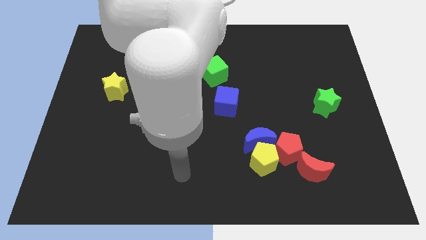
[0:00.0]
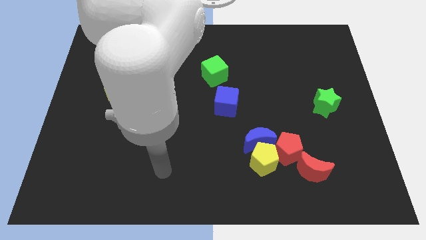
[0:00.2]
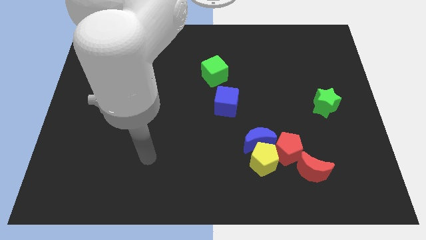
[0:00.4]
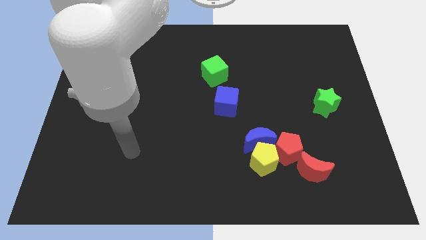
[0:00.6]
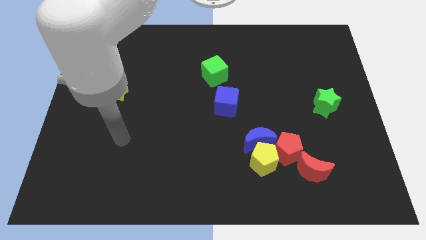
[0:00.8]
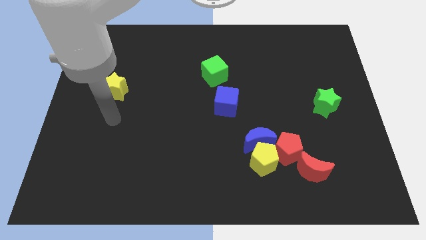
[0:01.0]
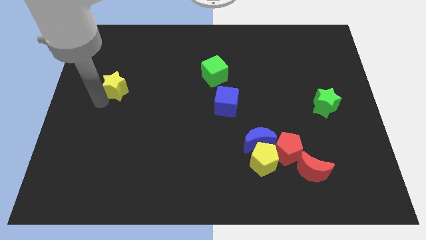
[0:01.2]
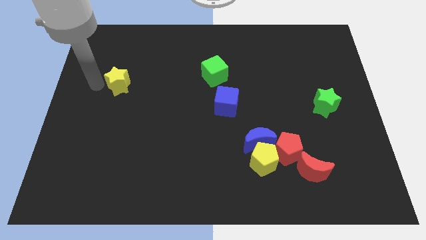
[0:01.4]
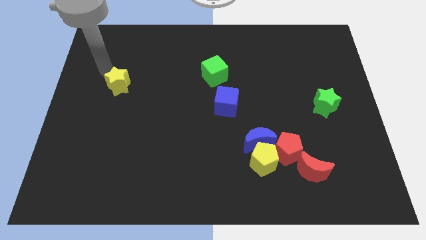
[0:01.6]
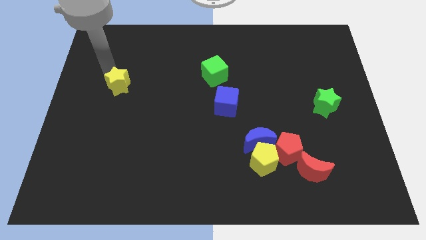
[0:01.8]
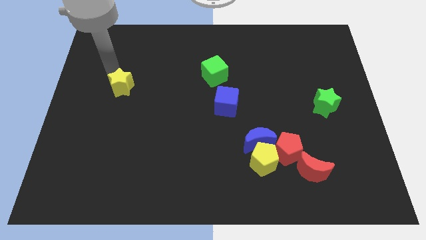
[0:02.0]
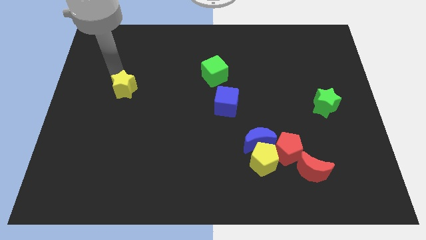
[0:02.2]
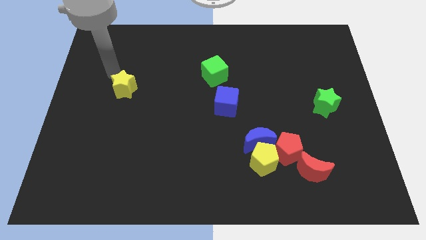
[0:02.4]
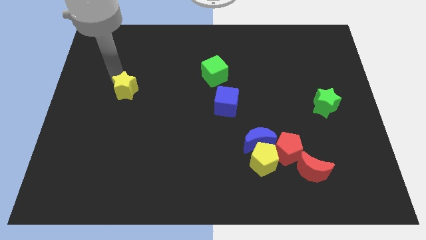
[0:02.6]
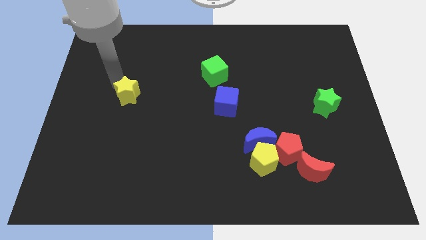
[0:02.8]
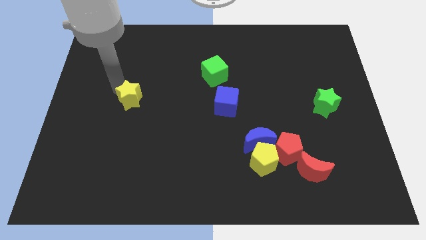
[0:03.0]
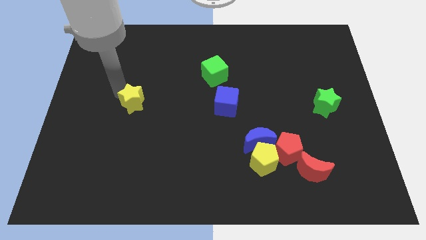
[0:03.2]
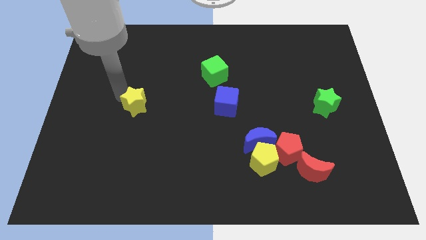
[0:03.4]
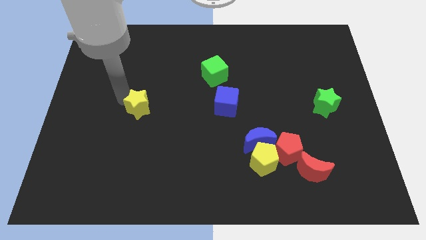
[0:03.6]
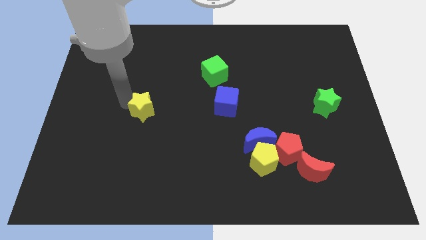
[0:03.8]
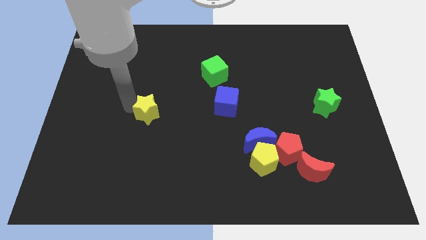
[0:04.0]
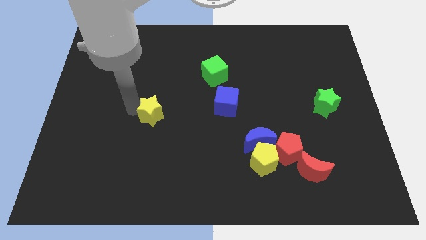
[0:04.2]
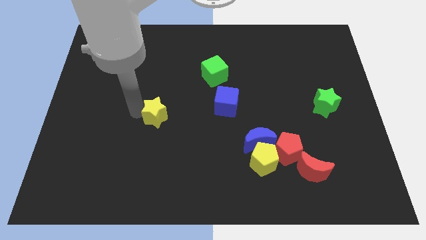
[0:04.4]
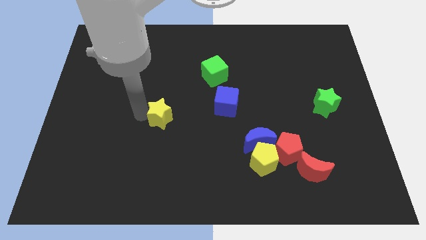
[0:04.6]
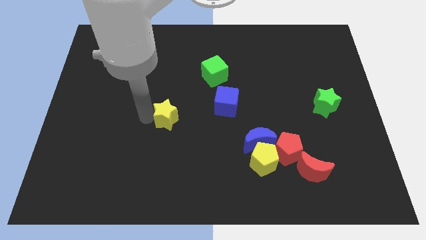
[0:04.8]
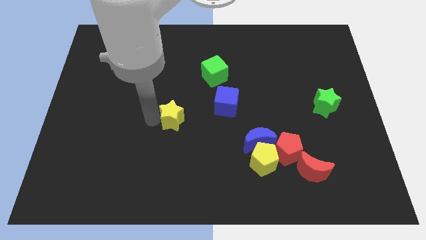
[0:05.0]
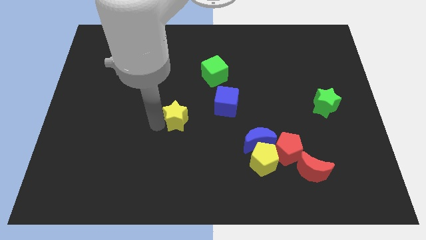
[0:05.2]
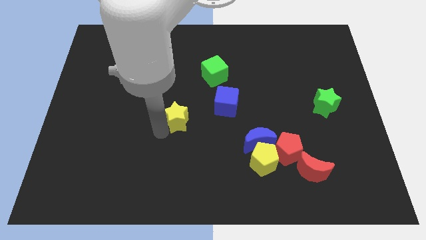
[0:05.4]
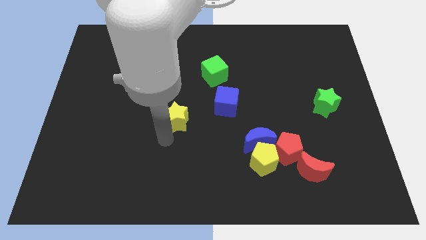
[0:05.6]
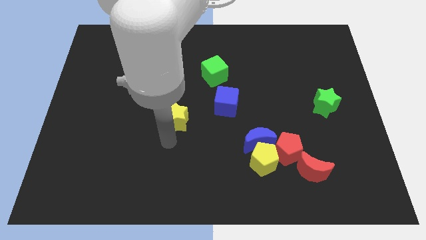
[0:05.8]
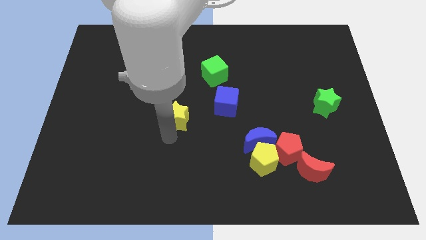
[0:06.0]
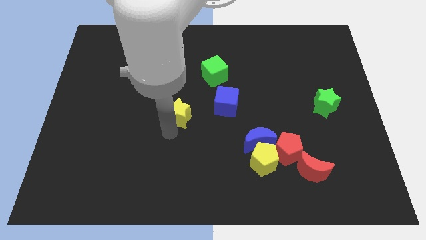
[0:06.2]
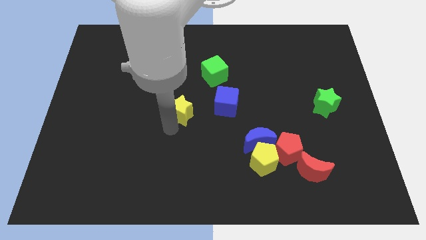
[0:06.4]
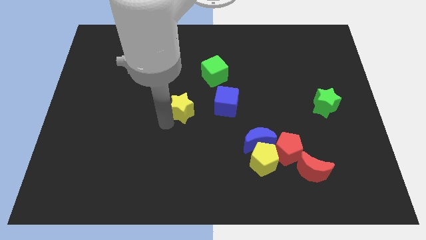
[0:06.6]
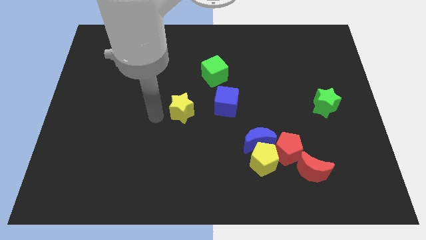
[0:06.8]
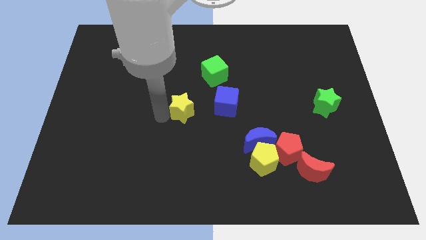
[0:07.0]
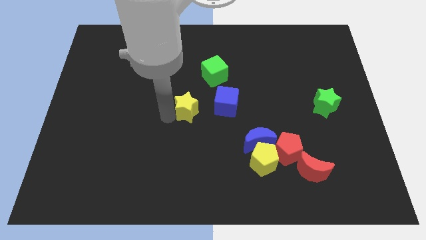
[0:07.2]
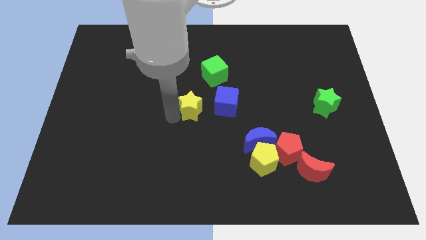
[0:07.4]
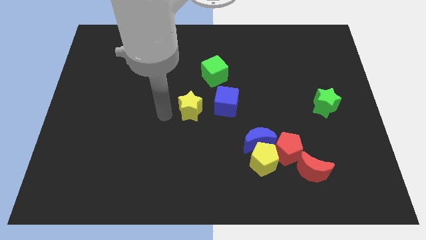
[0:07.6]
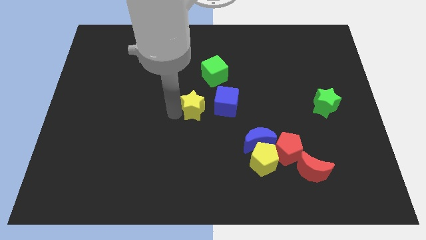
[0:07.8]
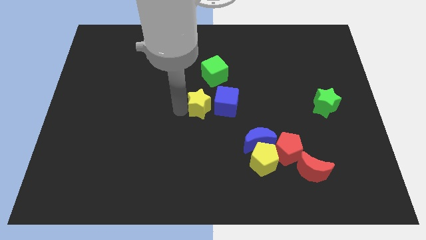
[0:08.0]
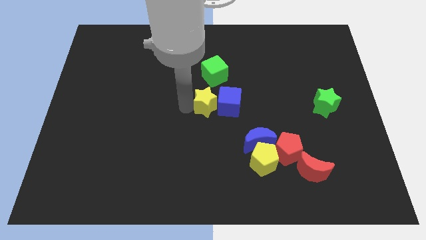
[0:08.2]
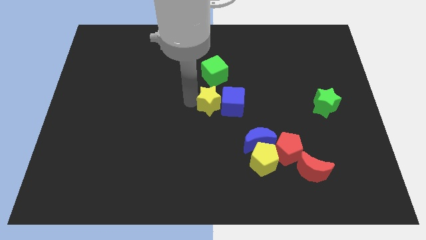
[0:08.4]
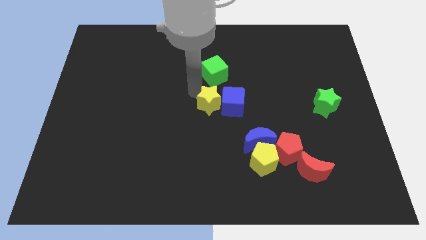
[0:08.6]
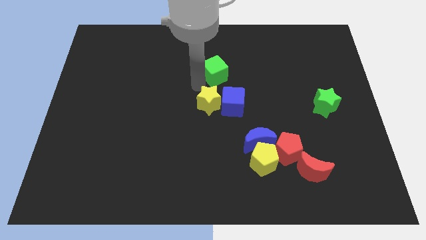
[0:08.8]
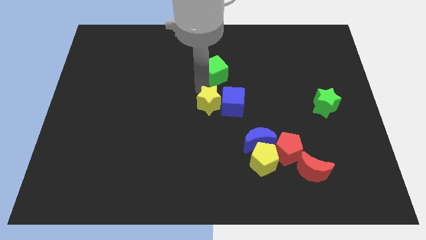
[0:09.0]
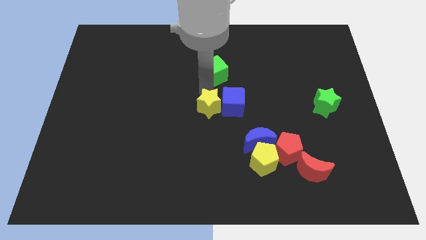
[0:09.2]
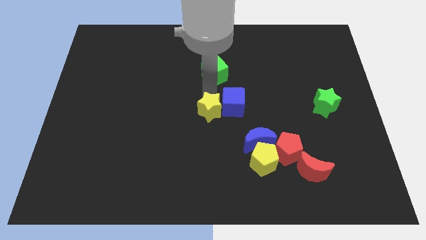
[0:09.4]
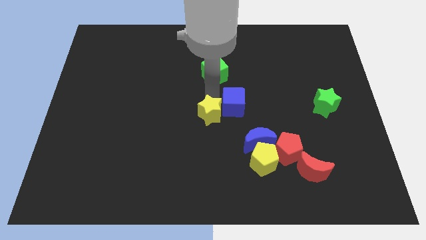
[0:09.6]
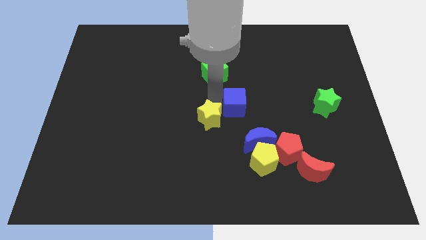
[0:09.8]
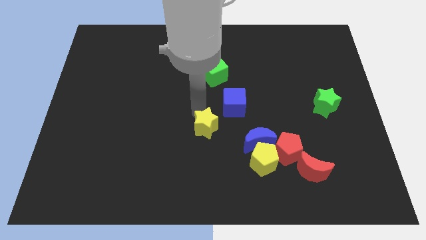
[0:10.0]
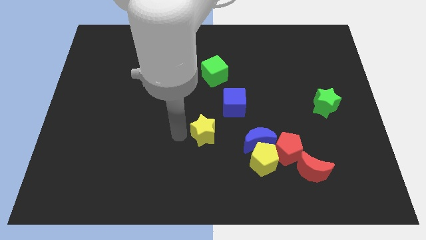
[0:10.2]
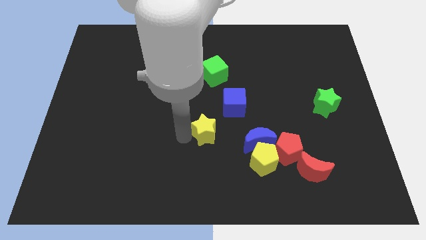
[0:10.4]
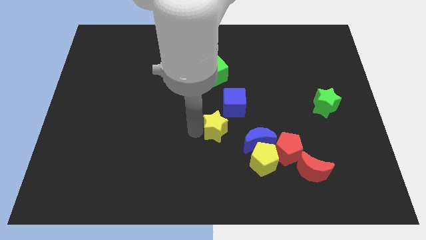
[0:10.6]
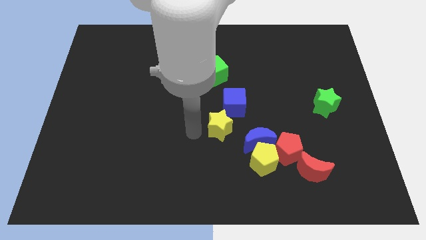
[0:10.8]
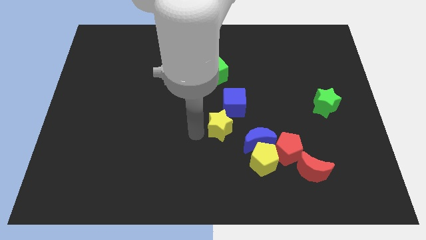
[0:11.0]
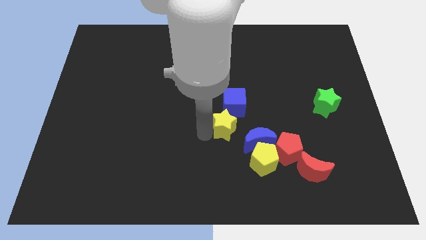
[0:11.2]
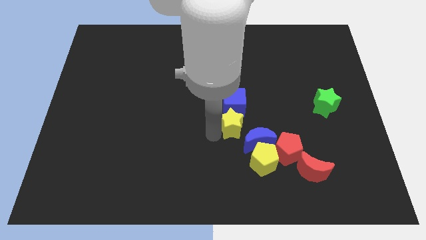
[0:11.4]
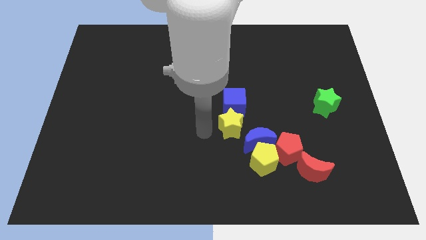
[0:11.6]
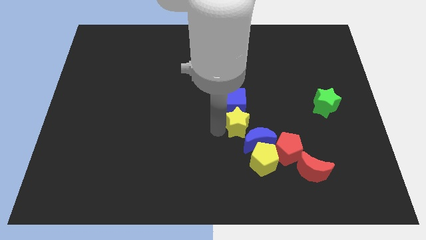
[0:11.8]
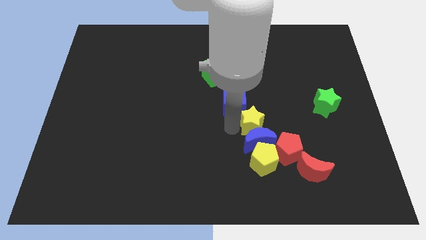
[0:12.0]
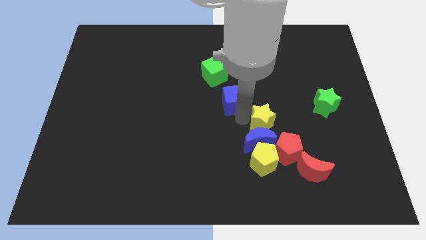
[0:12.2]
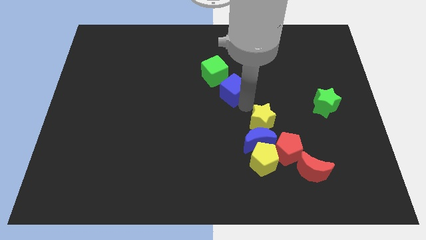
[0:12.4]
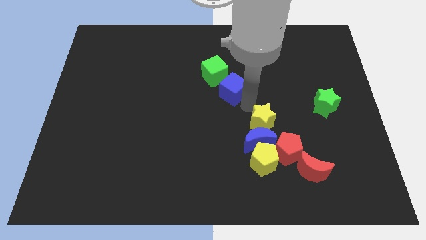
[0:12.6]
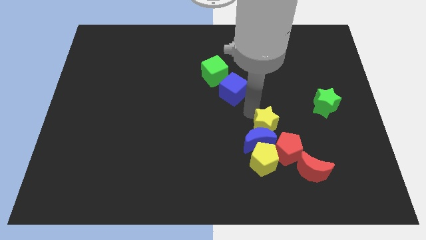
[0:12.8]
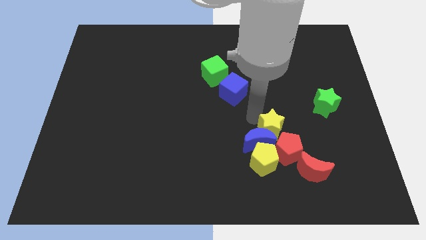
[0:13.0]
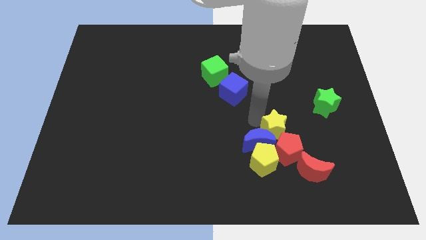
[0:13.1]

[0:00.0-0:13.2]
push the yellow star towards the red pentagon
